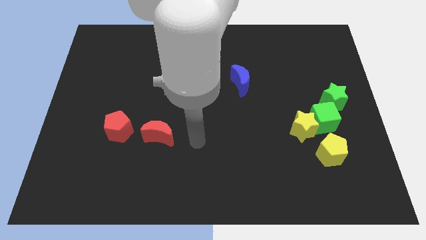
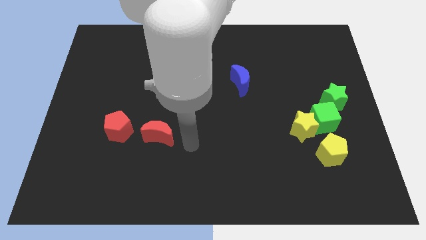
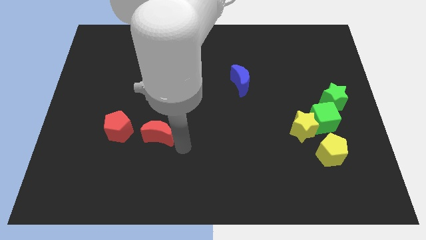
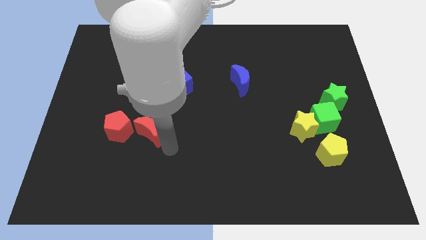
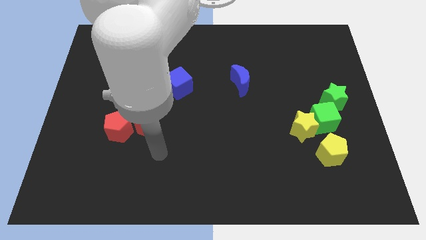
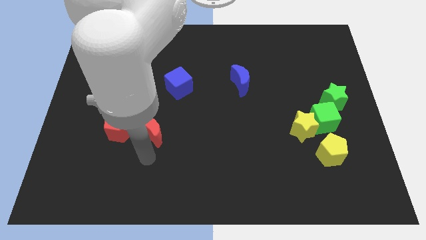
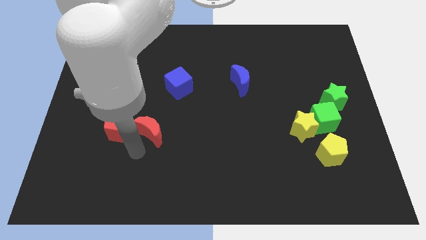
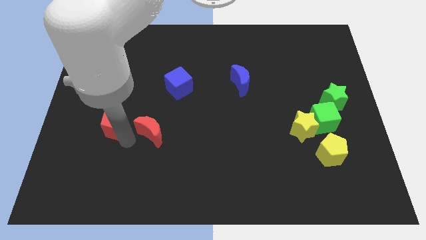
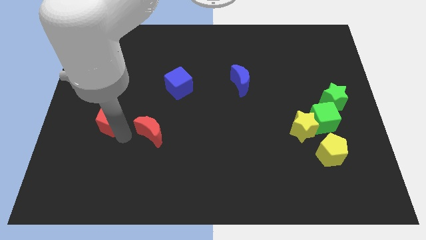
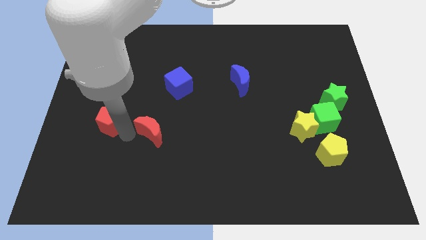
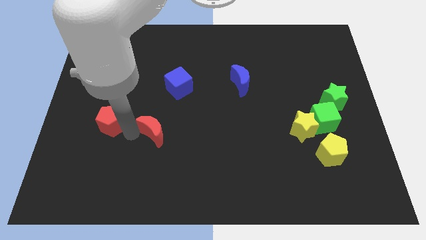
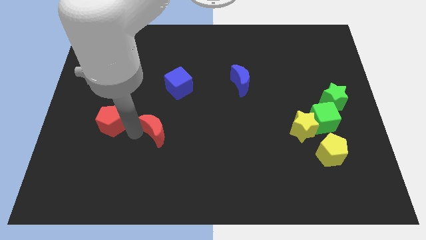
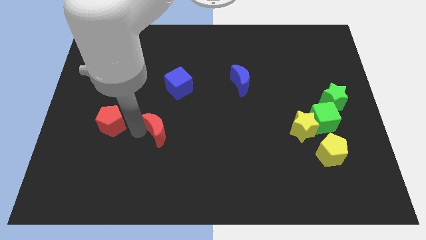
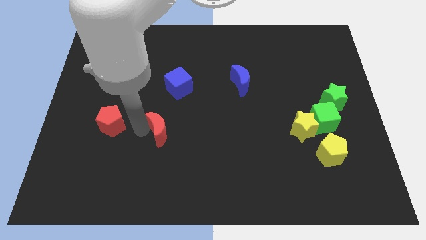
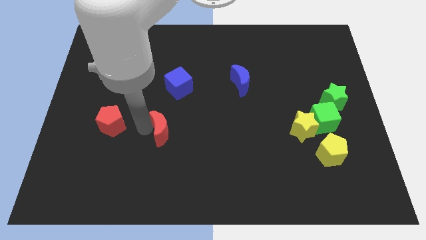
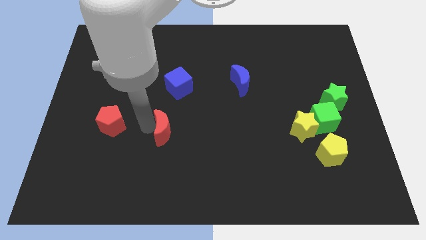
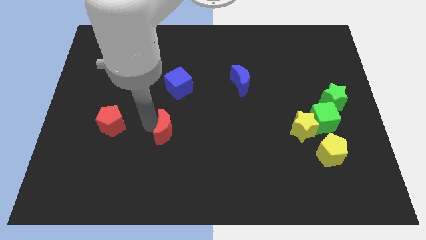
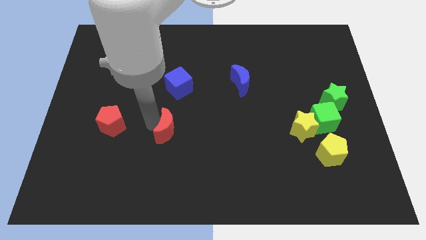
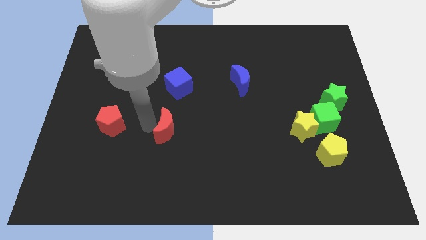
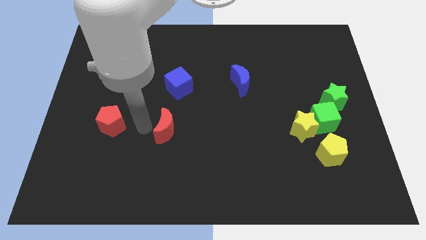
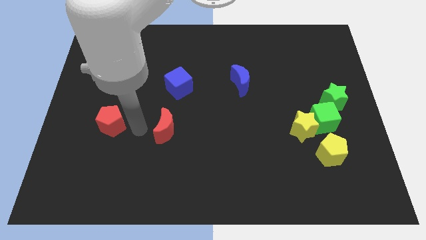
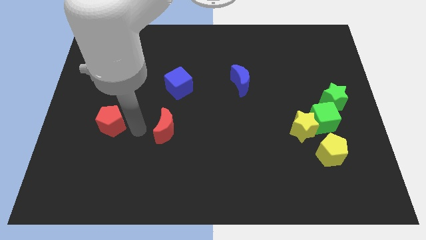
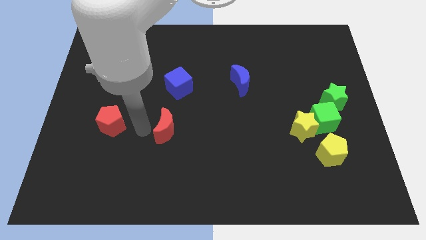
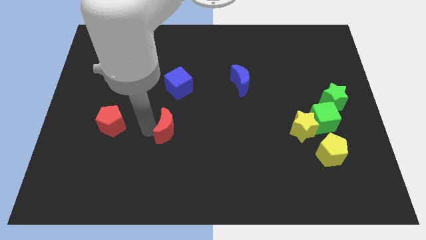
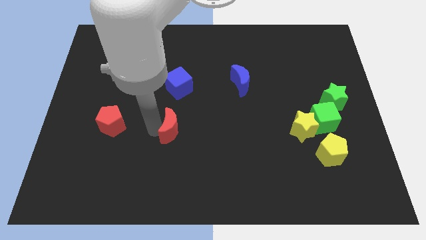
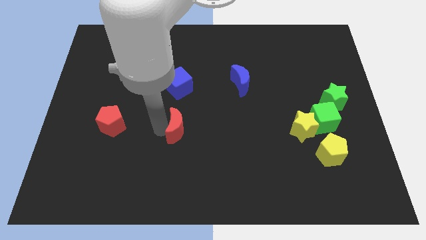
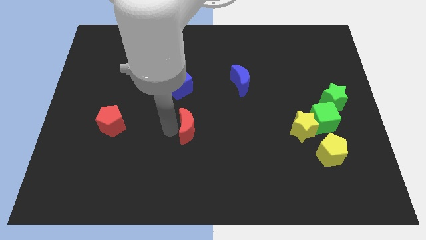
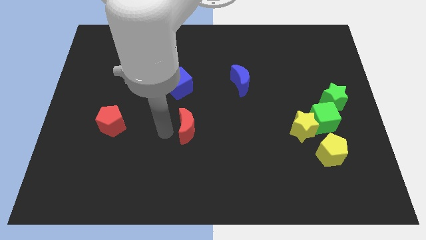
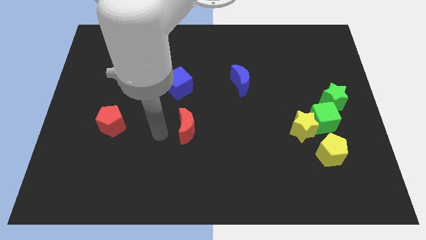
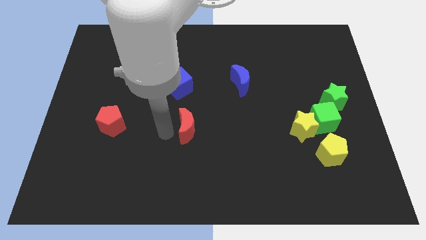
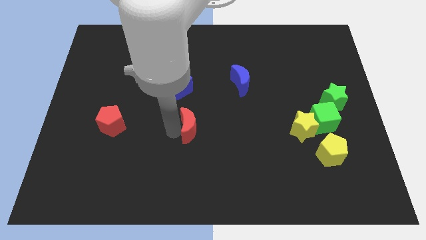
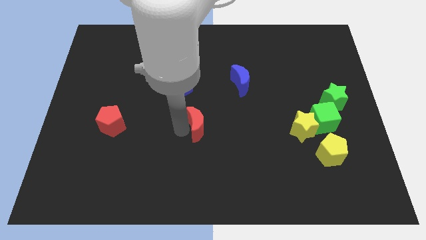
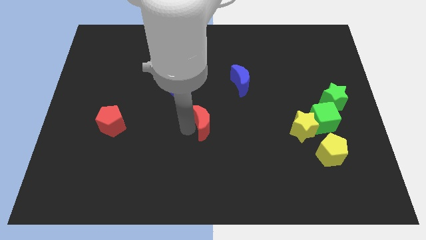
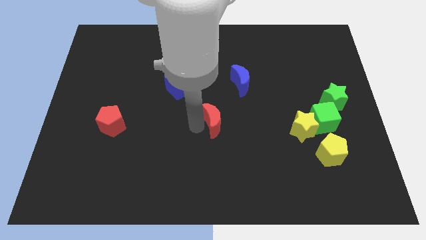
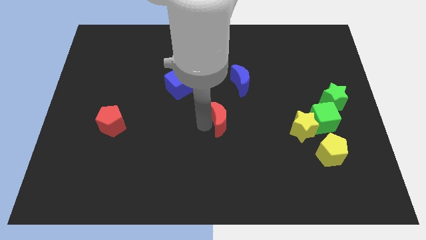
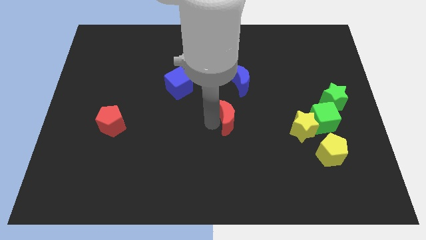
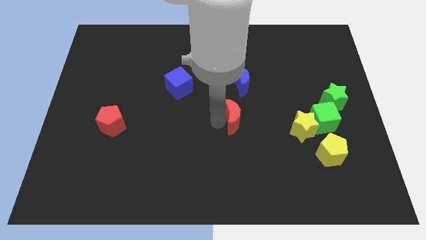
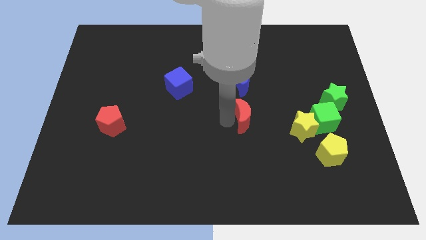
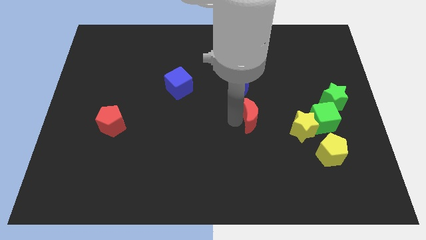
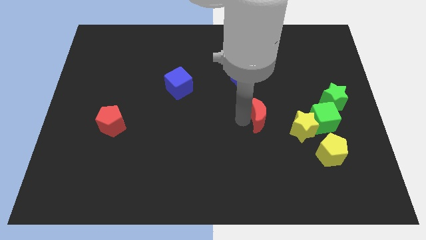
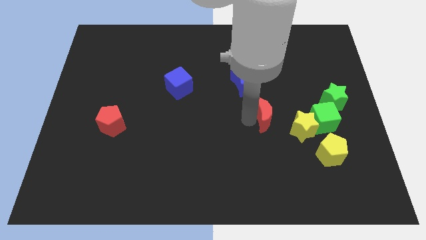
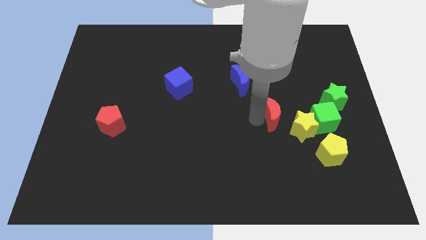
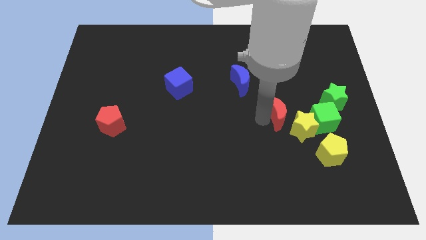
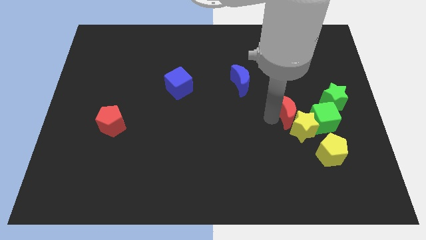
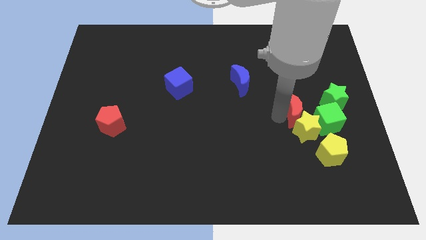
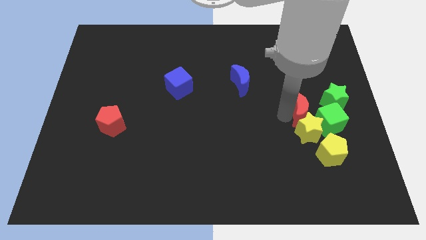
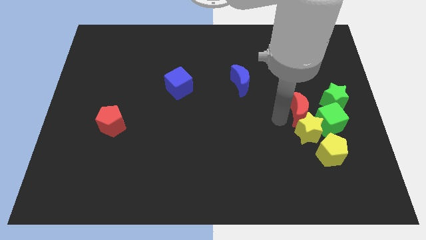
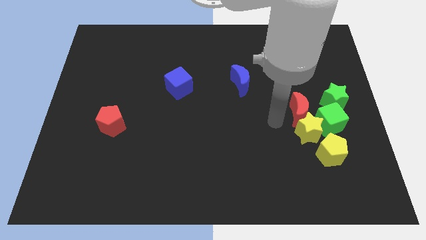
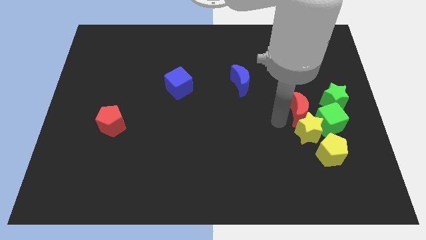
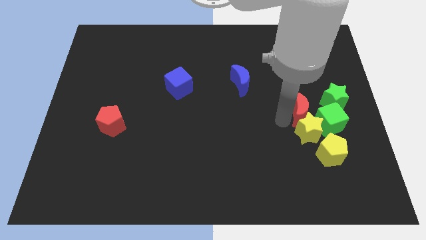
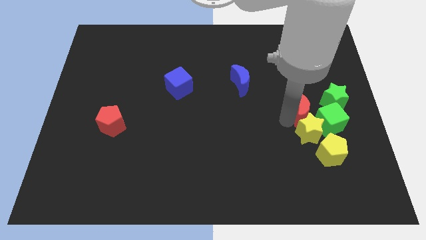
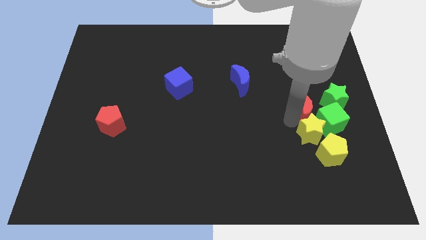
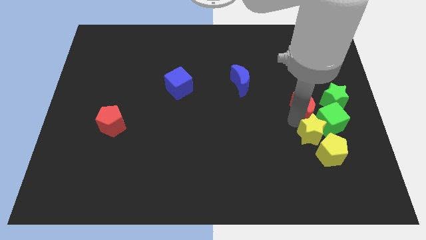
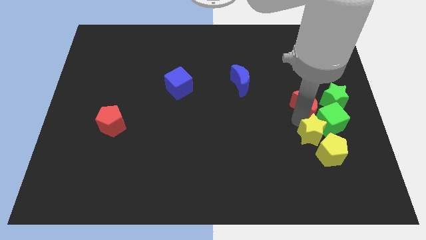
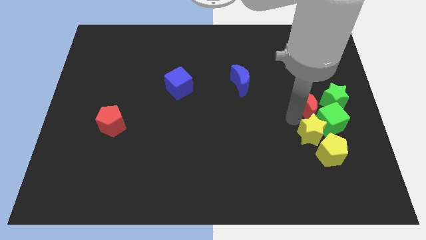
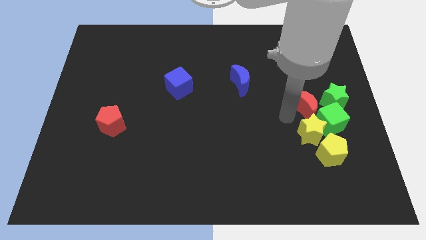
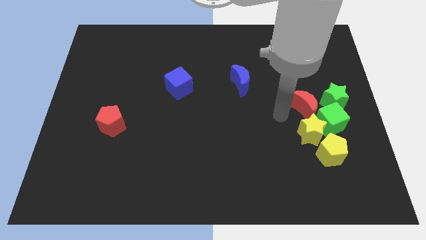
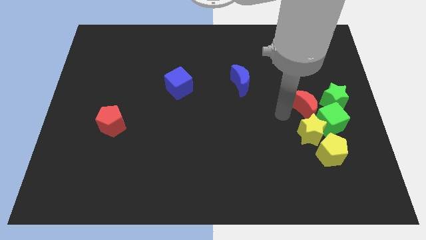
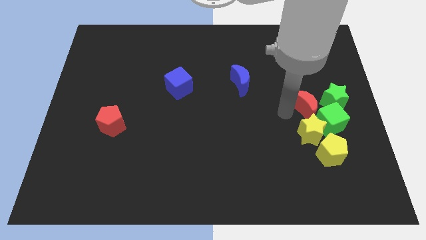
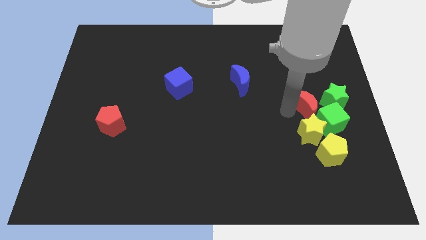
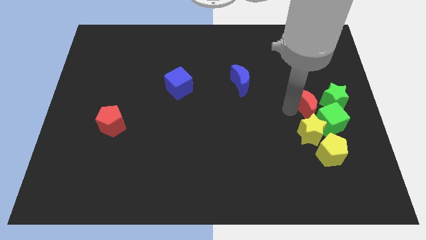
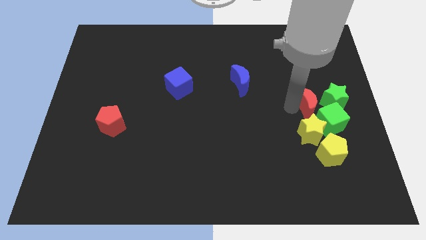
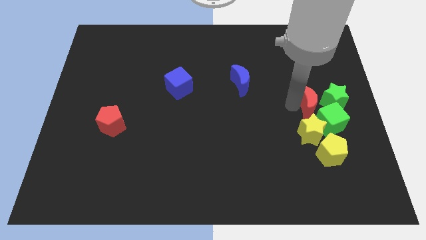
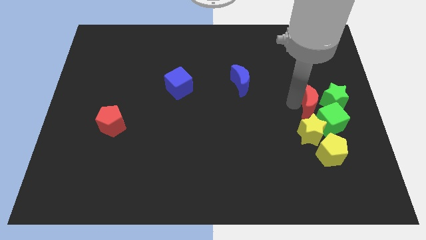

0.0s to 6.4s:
put the red moon towards the green star

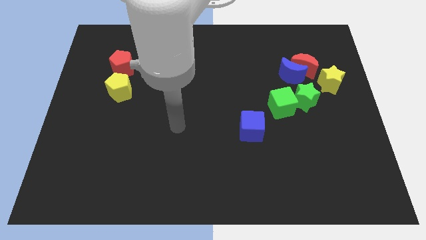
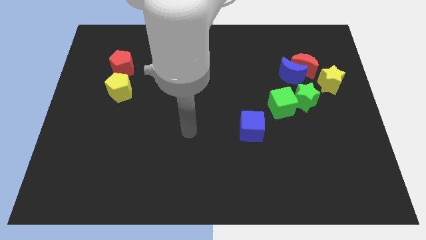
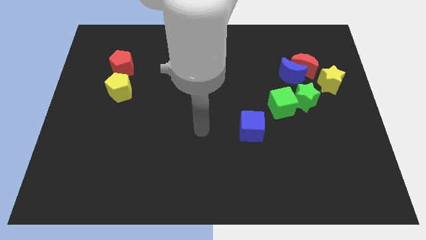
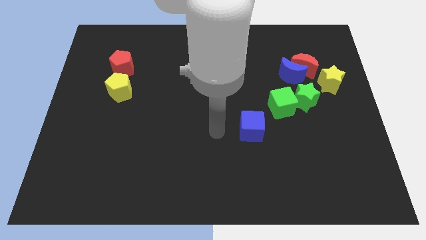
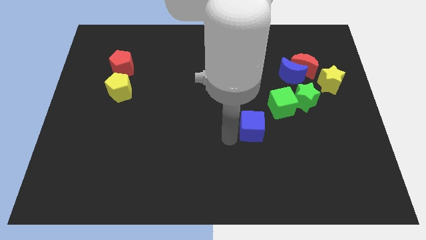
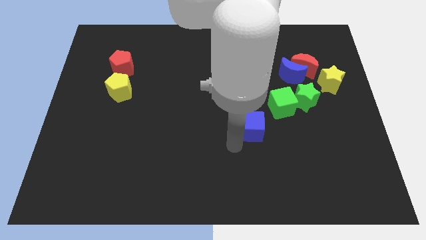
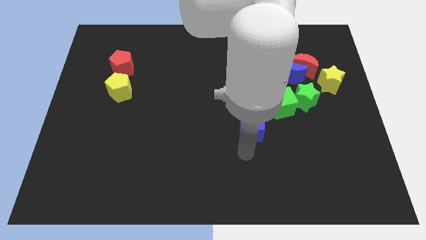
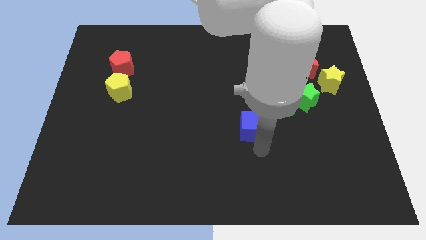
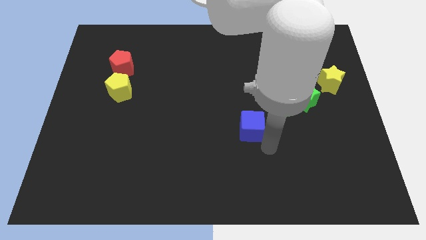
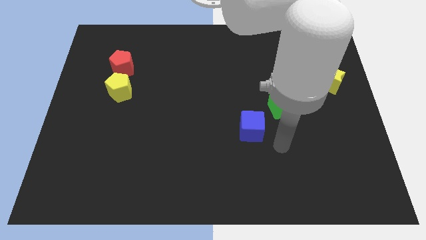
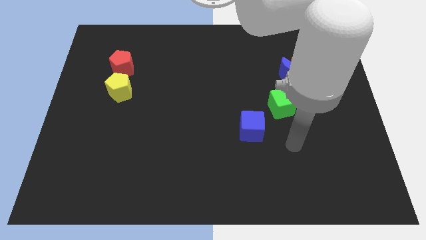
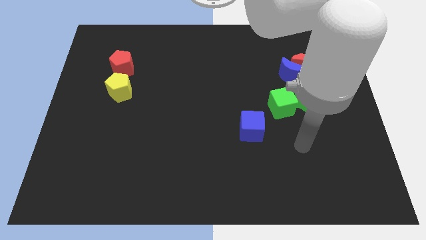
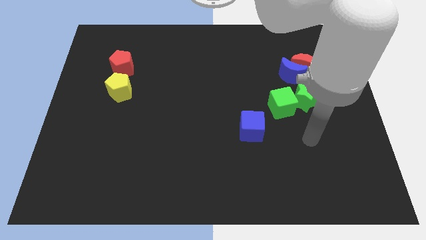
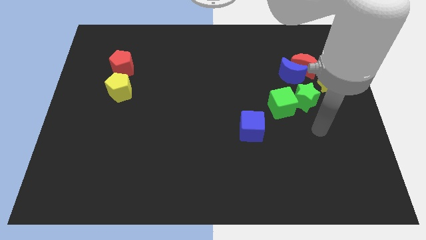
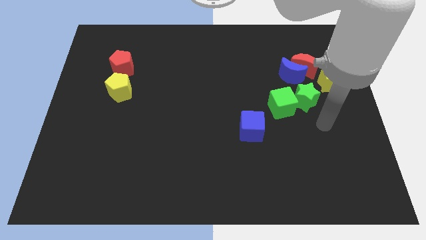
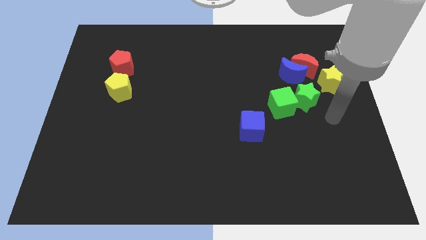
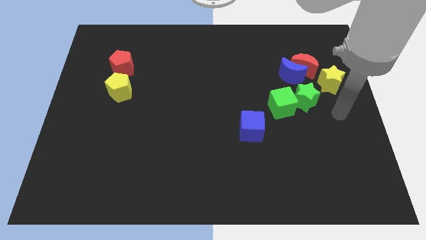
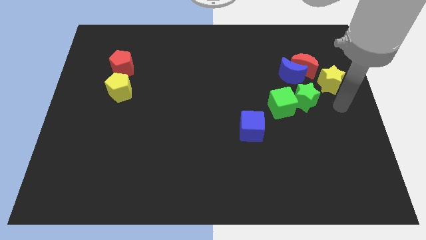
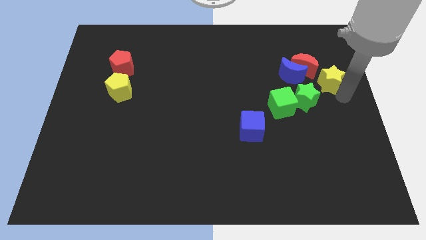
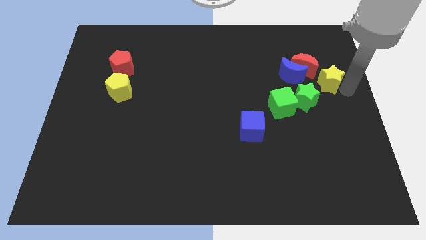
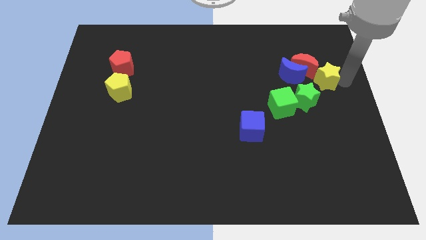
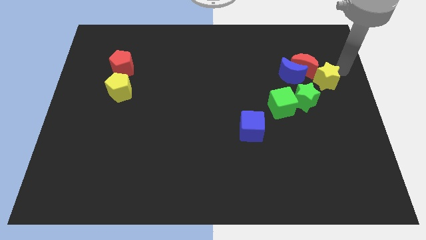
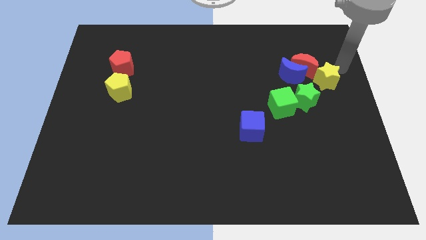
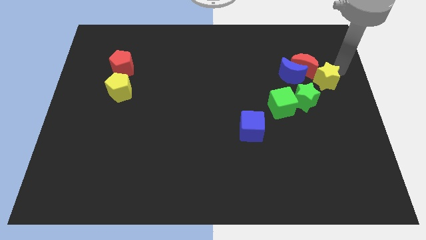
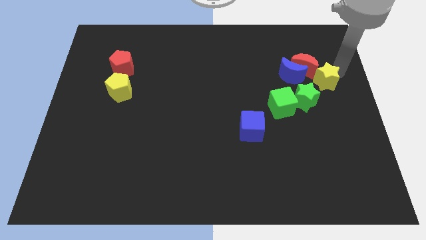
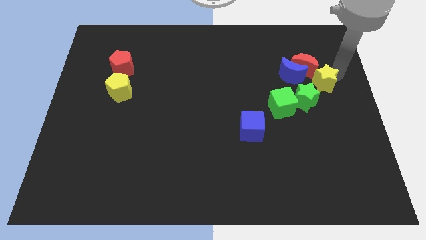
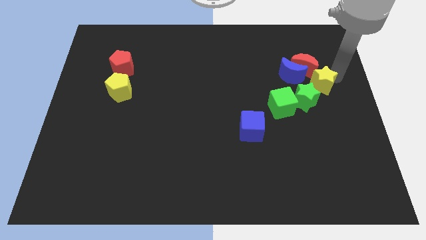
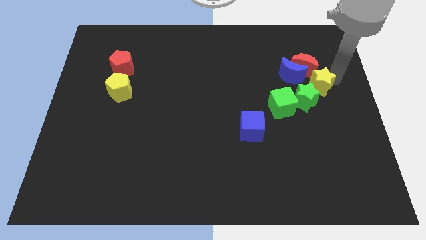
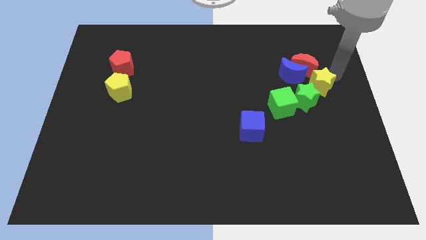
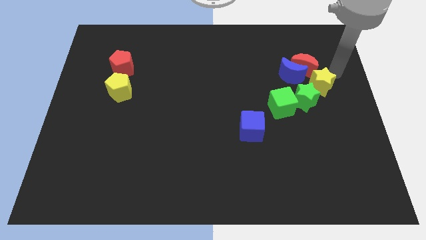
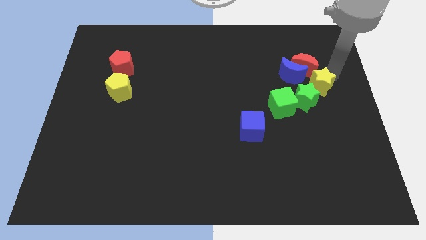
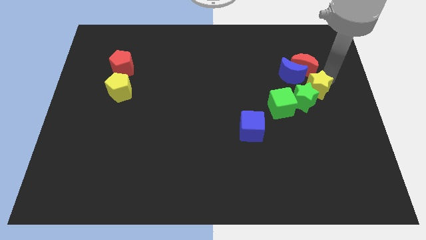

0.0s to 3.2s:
push the yellow star towards the green star
